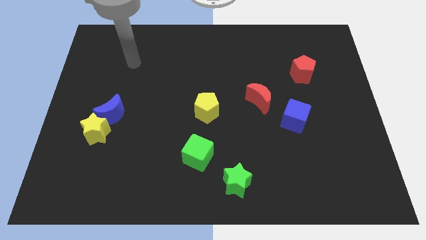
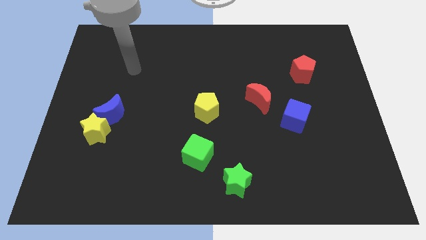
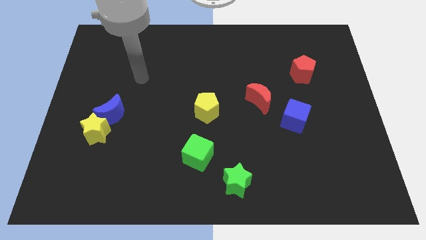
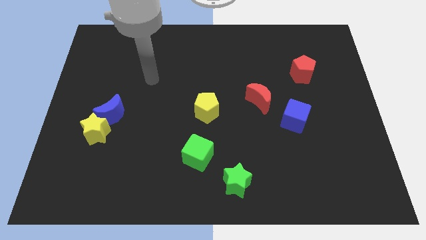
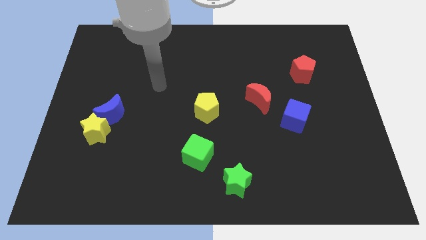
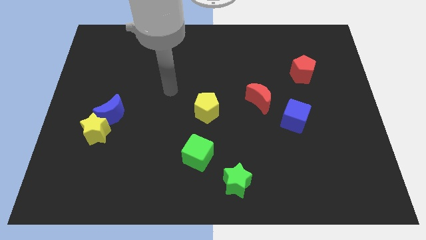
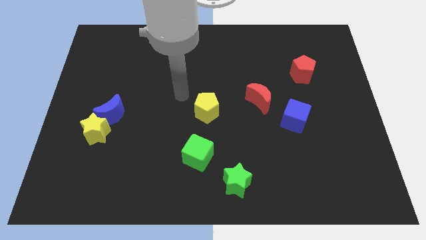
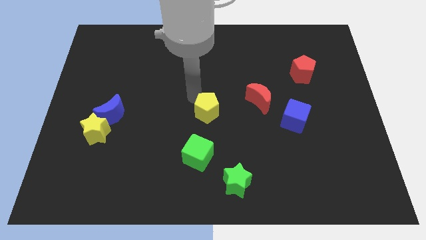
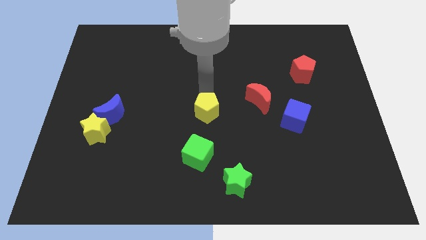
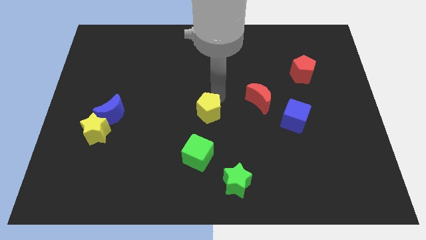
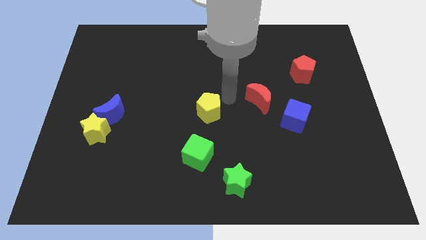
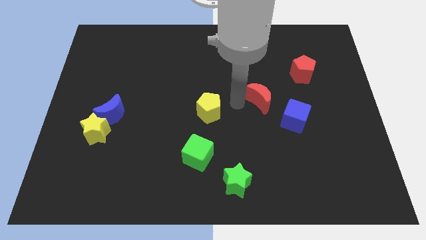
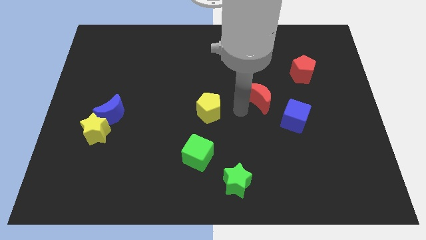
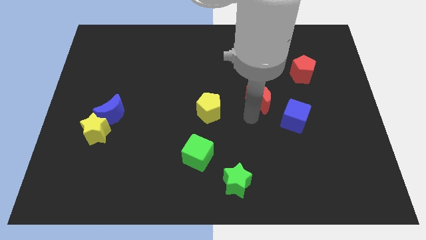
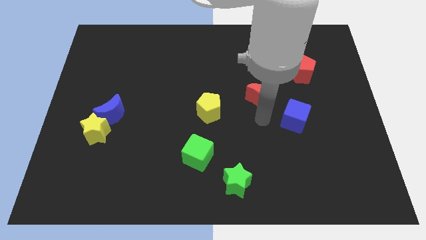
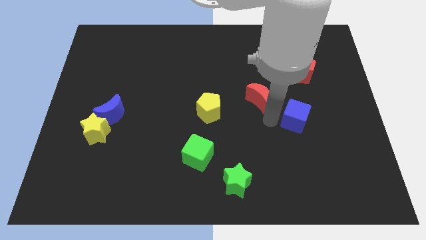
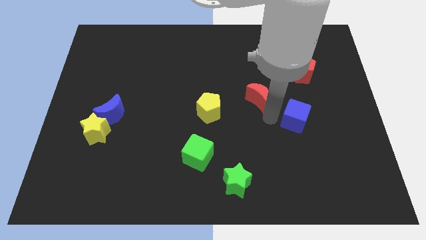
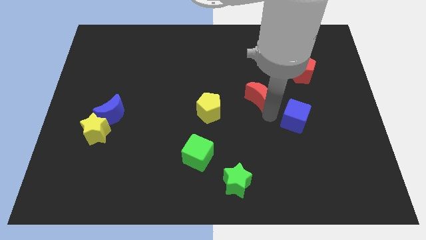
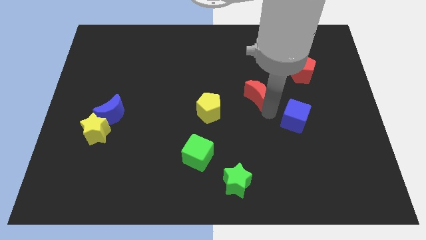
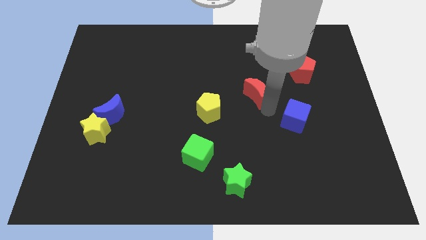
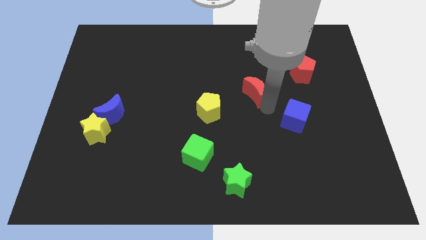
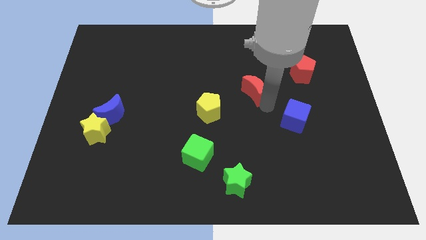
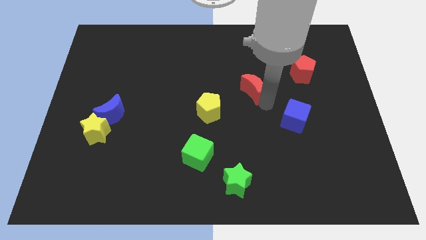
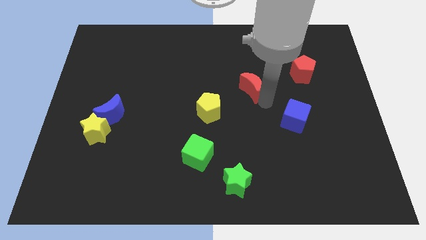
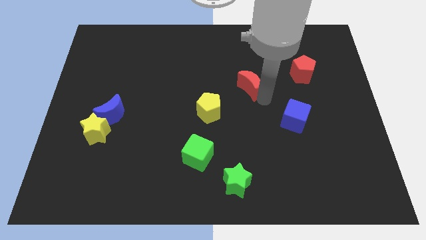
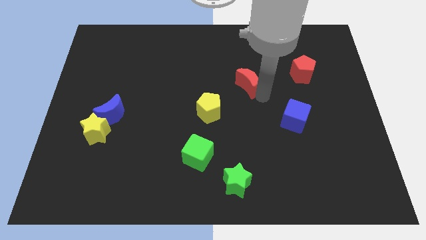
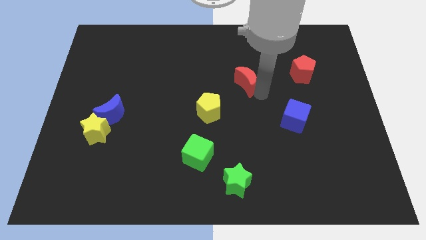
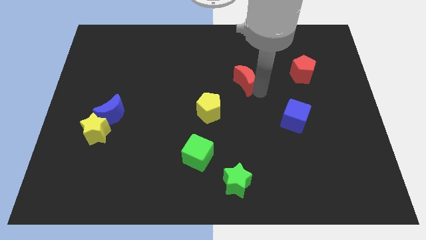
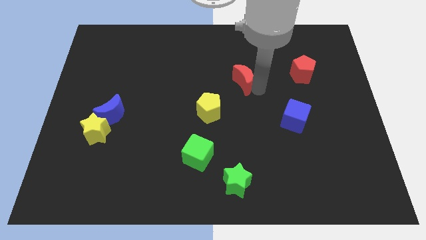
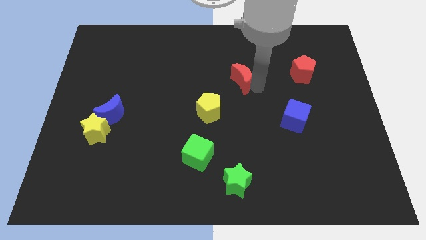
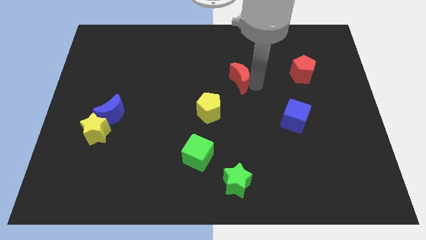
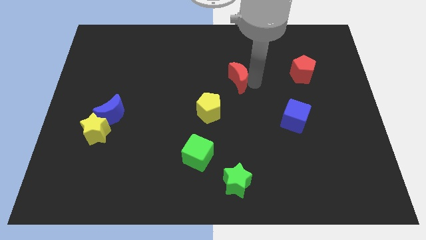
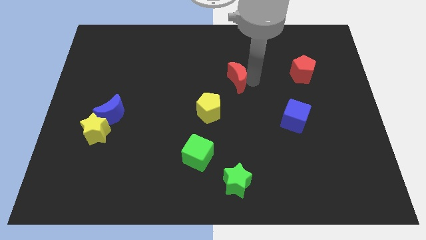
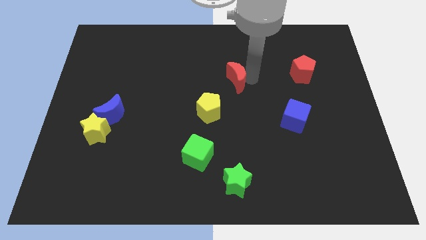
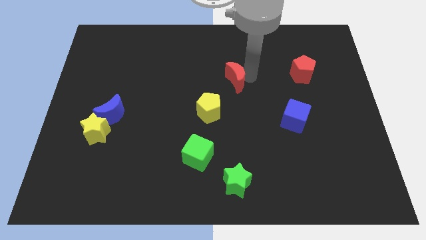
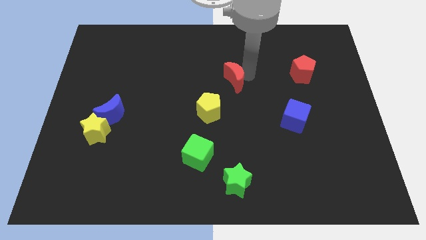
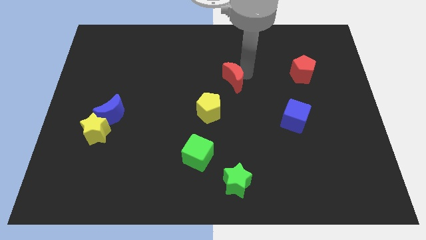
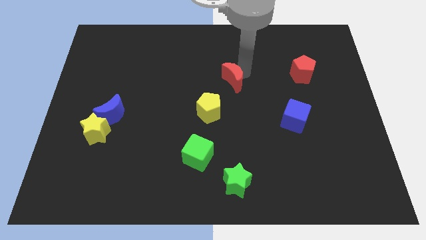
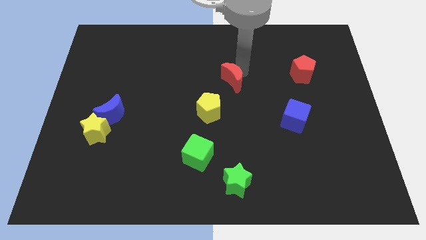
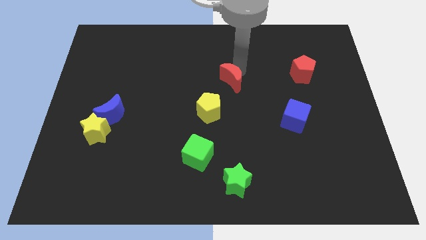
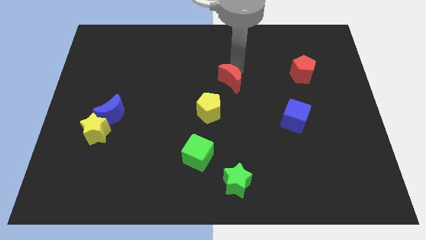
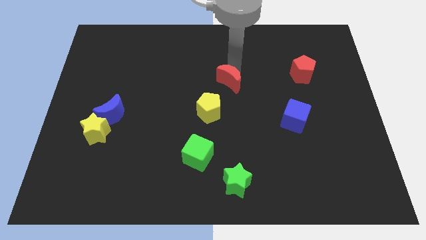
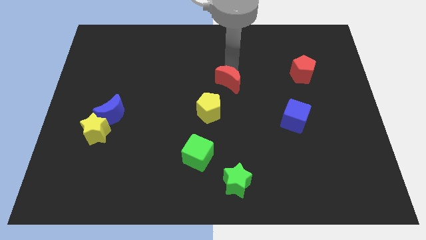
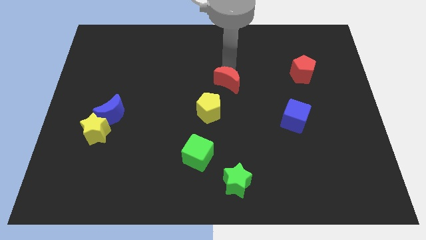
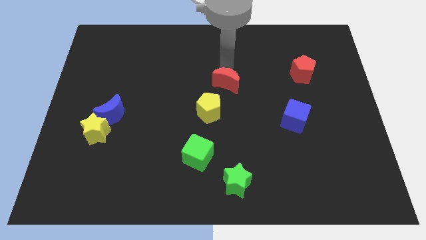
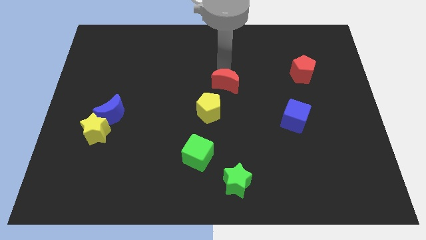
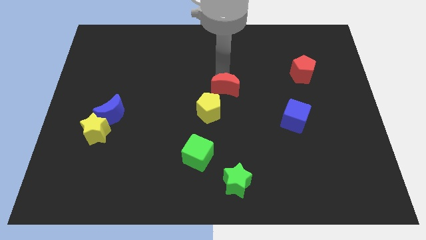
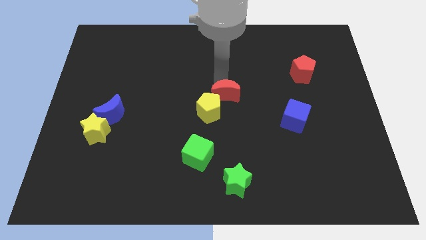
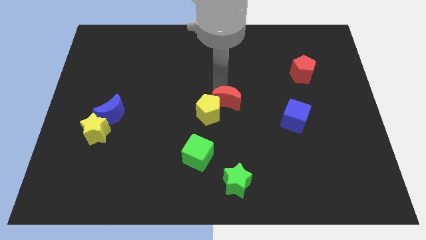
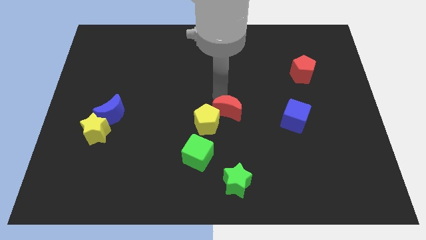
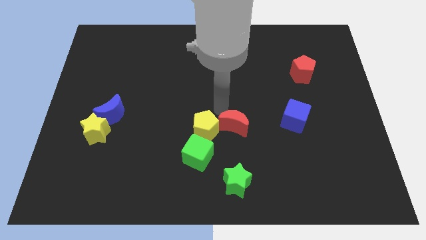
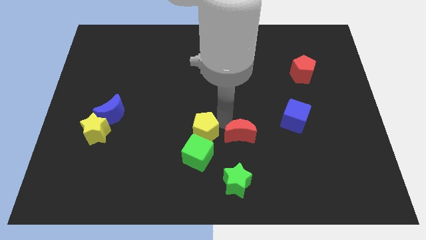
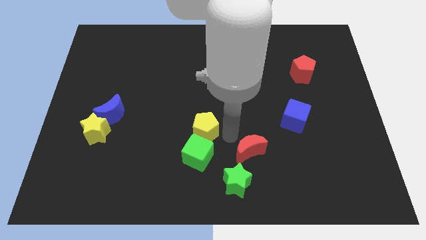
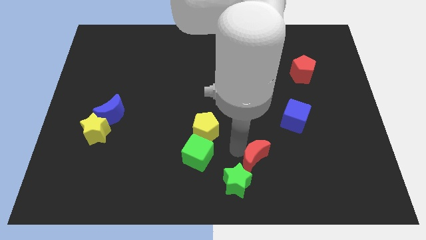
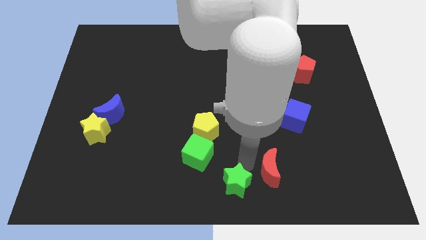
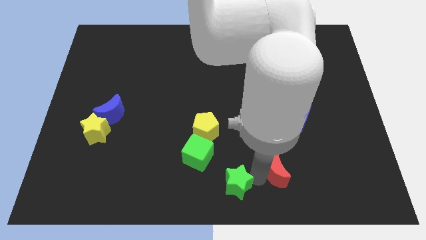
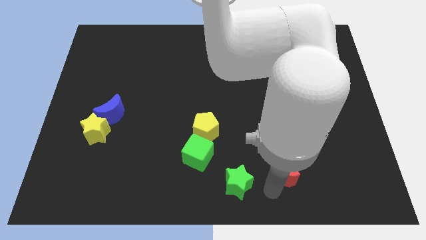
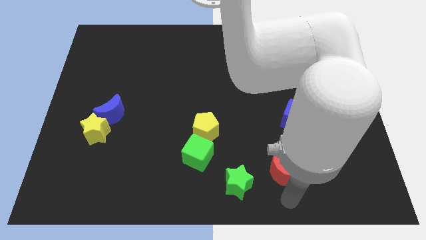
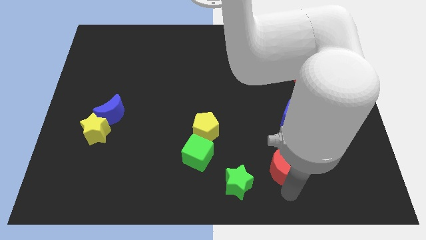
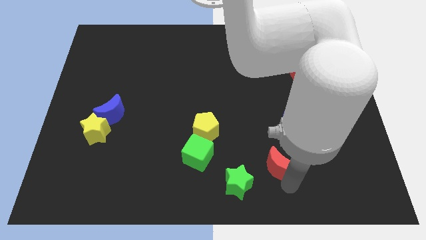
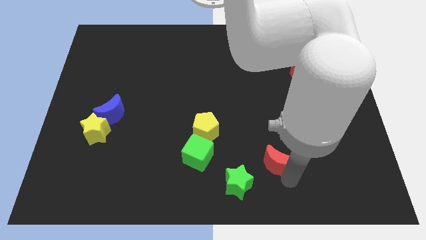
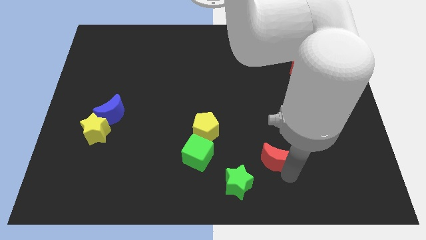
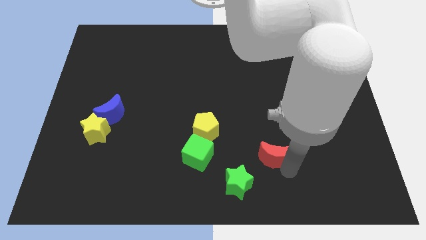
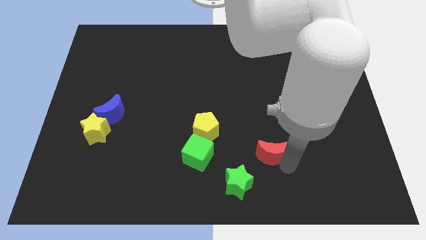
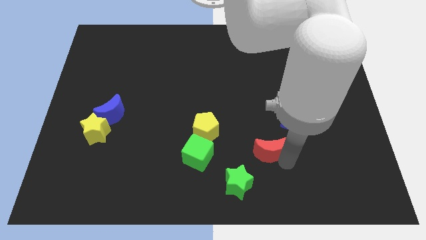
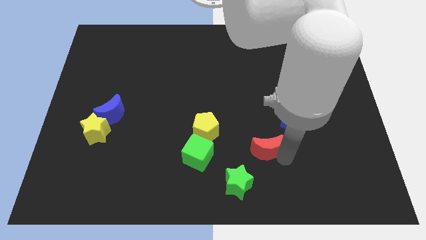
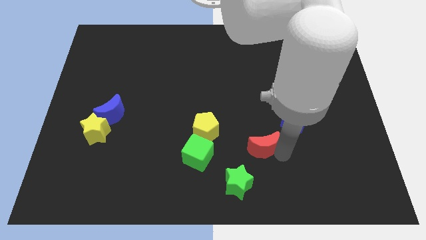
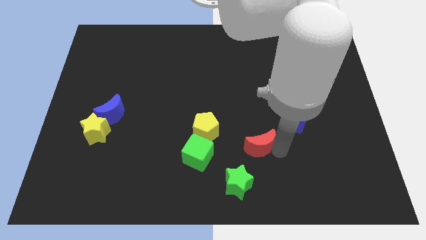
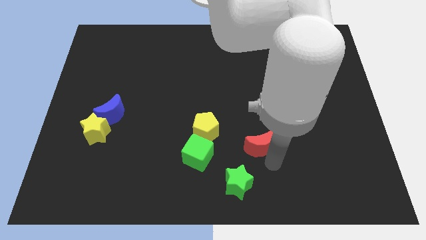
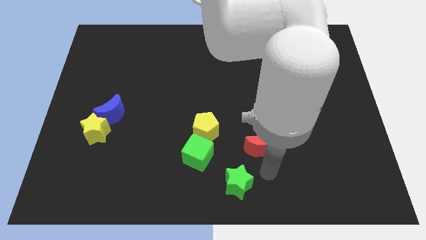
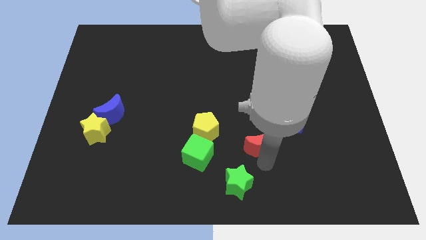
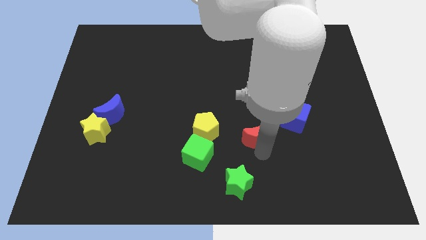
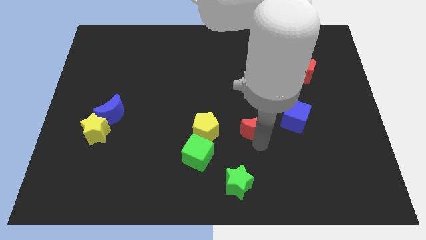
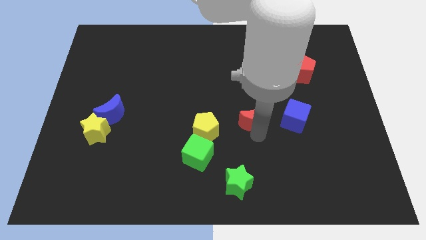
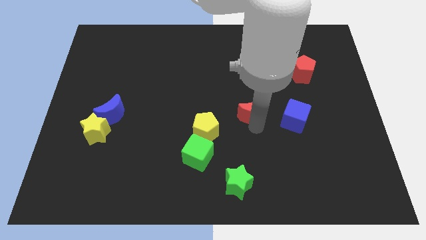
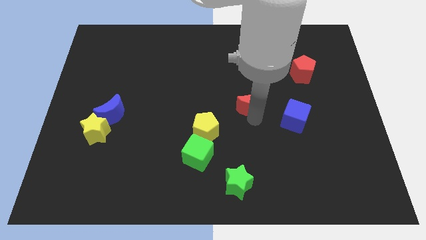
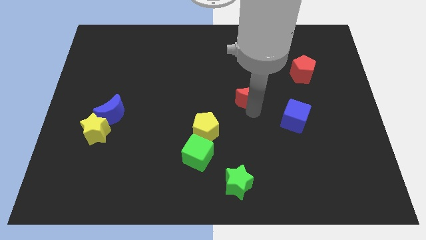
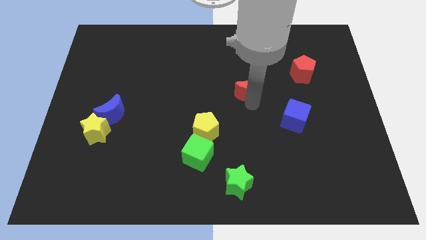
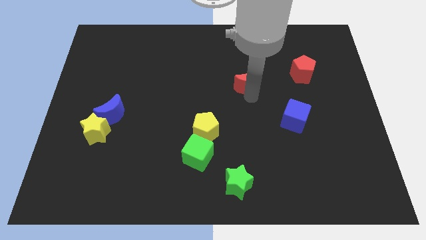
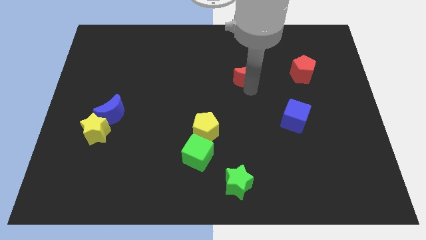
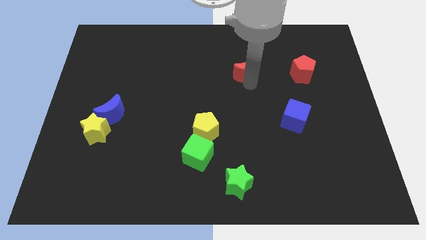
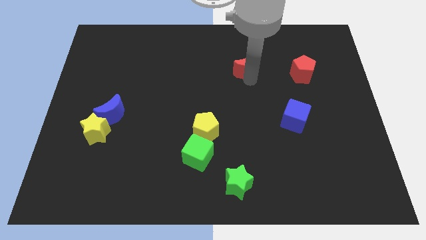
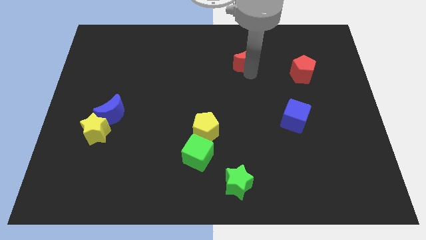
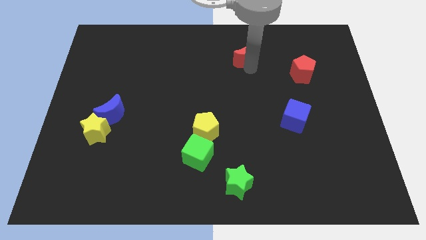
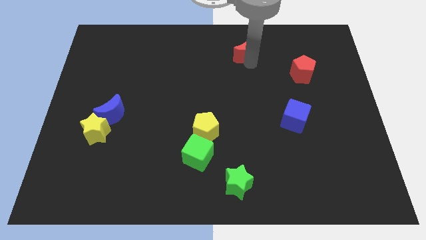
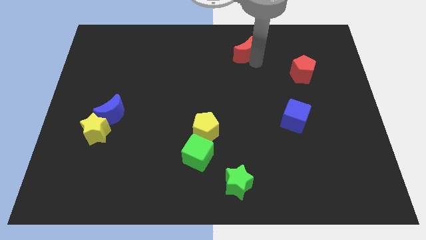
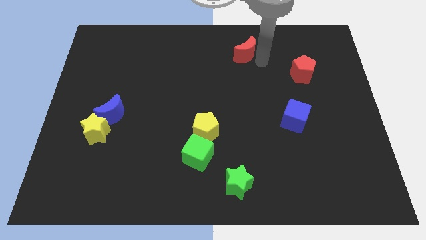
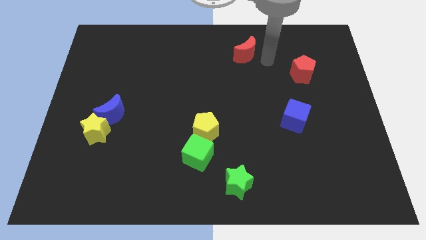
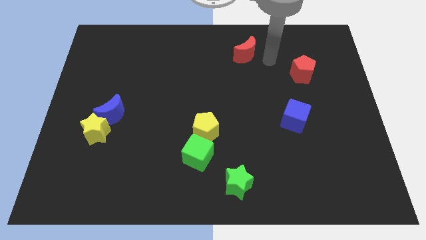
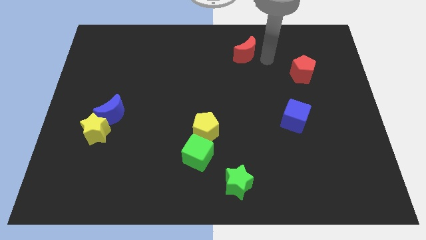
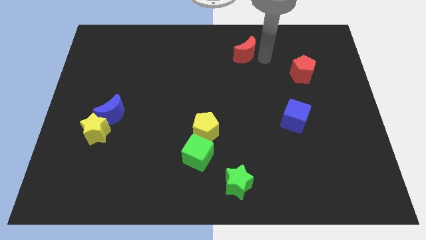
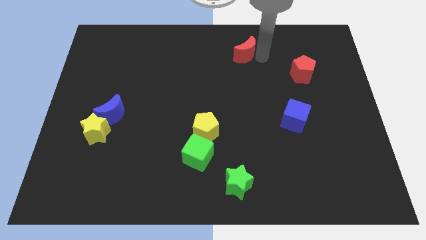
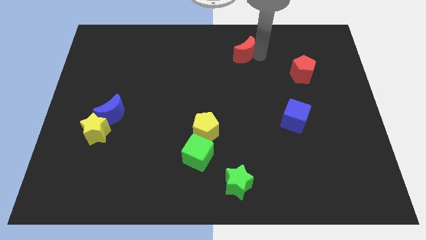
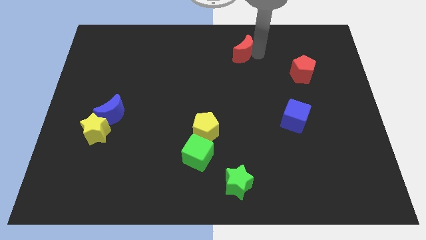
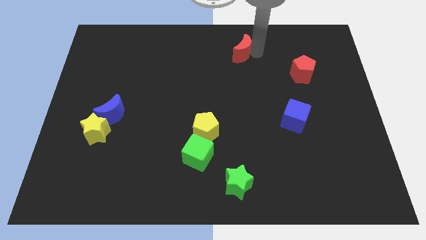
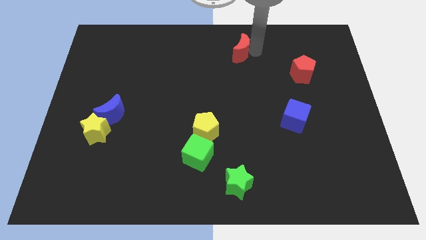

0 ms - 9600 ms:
put the red moon to the top
